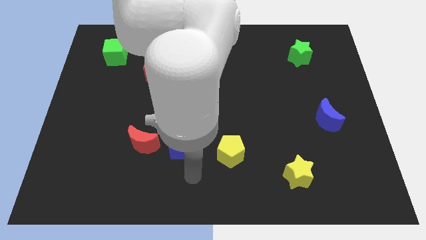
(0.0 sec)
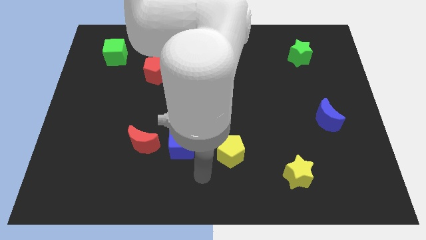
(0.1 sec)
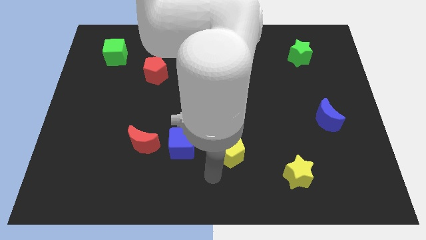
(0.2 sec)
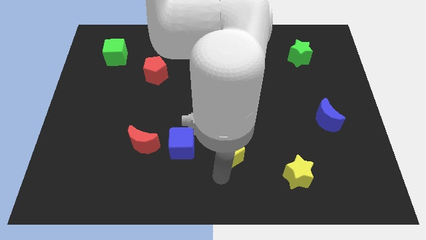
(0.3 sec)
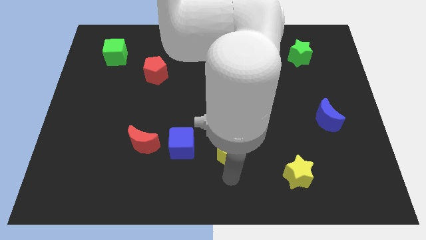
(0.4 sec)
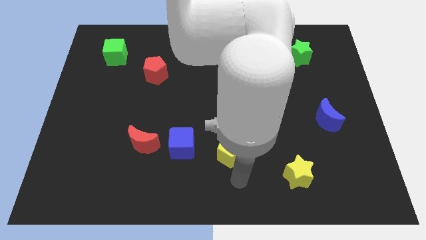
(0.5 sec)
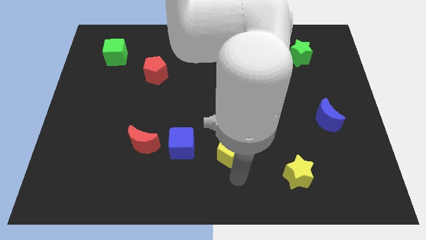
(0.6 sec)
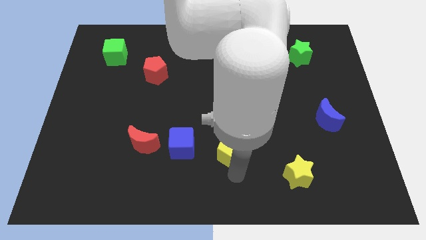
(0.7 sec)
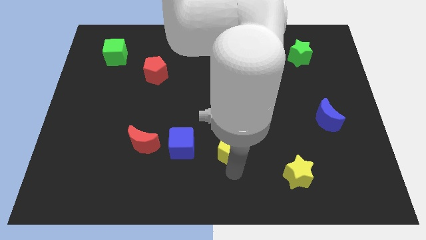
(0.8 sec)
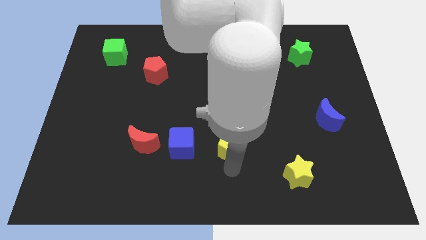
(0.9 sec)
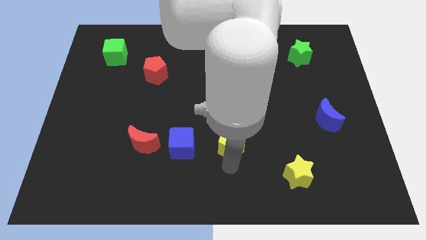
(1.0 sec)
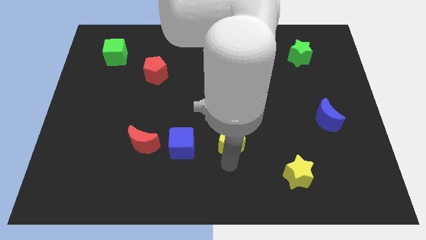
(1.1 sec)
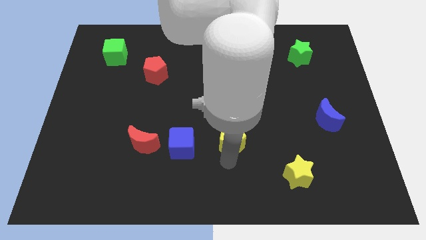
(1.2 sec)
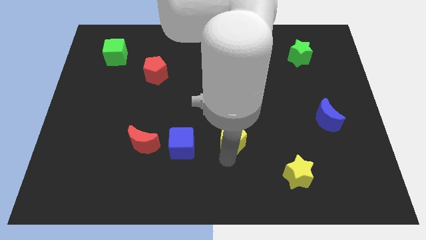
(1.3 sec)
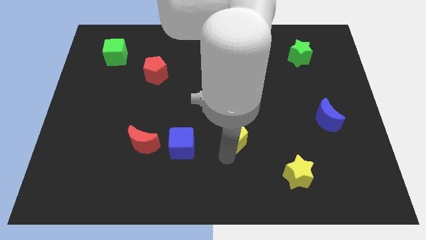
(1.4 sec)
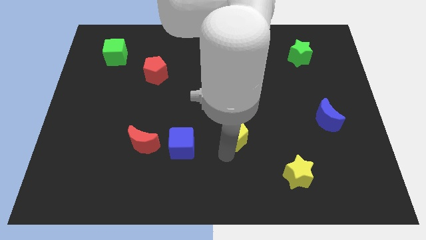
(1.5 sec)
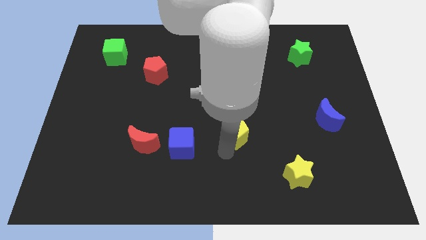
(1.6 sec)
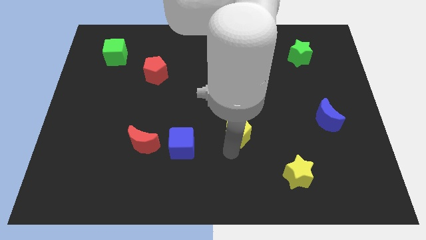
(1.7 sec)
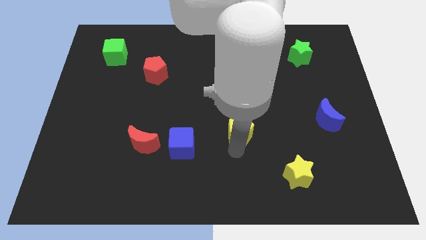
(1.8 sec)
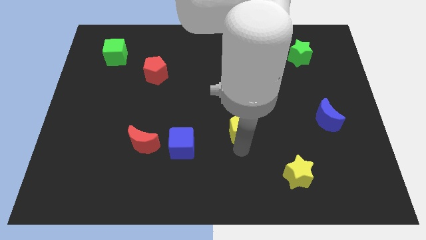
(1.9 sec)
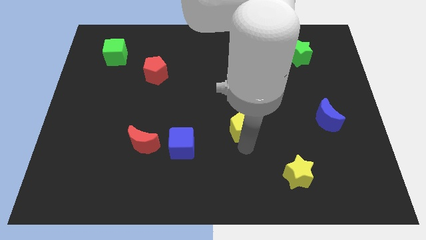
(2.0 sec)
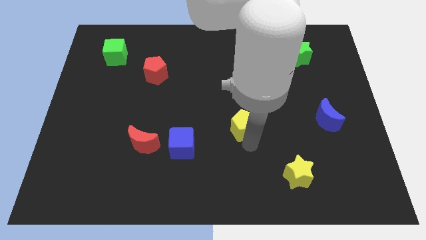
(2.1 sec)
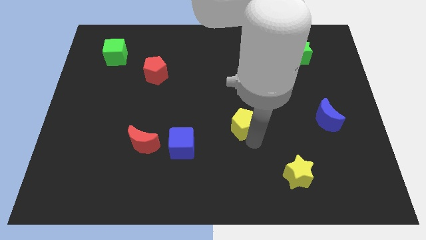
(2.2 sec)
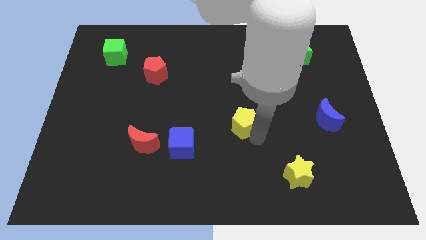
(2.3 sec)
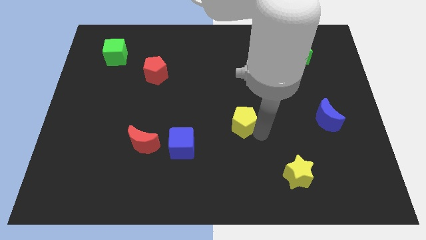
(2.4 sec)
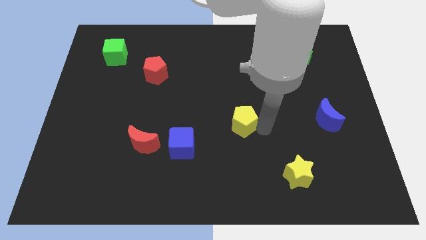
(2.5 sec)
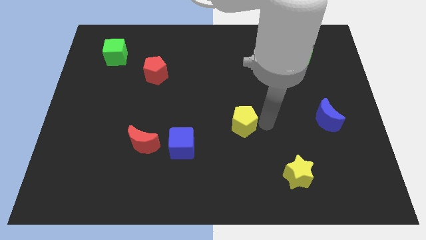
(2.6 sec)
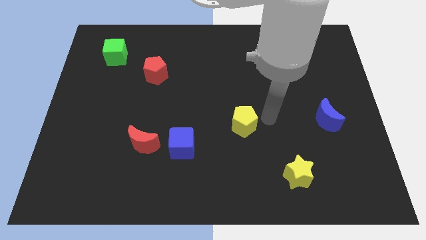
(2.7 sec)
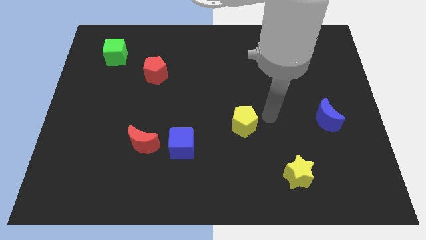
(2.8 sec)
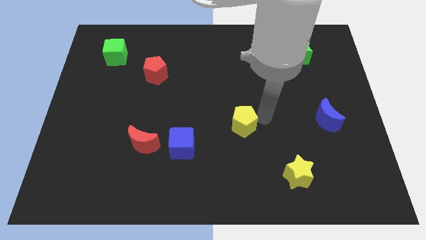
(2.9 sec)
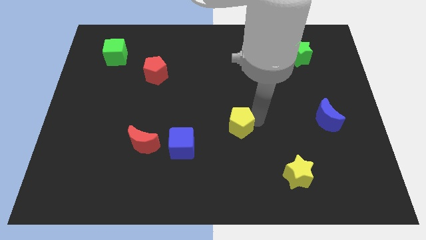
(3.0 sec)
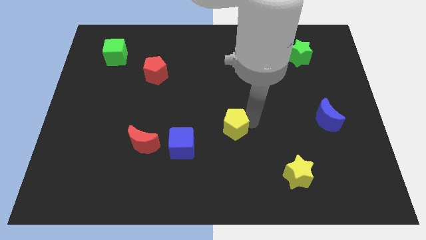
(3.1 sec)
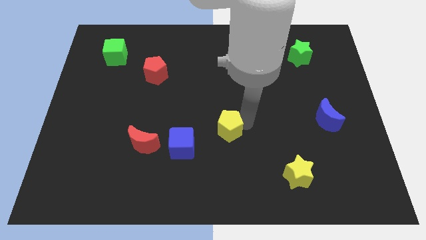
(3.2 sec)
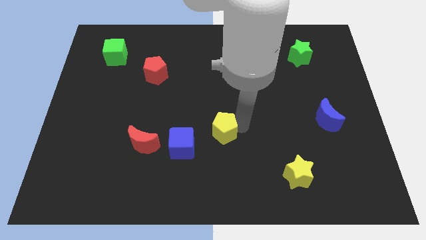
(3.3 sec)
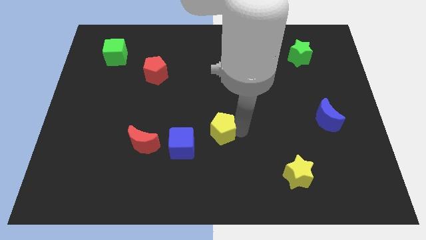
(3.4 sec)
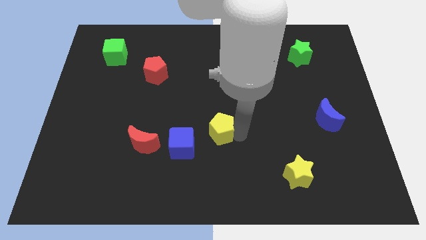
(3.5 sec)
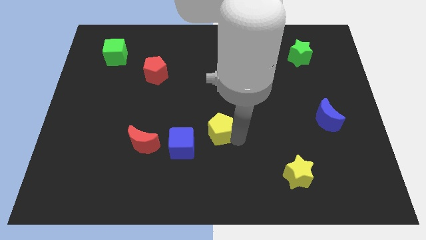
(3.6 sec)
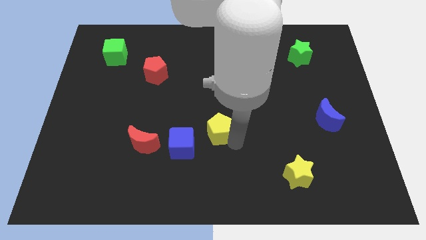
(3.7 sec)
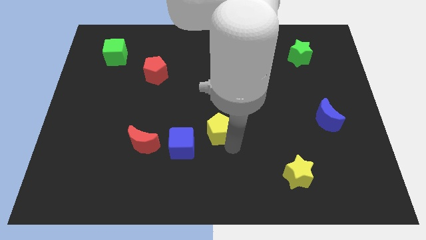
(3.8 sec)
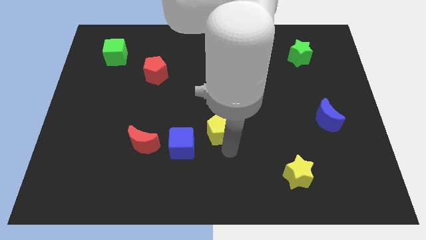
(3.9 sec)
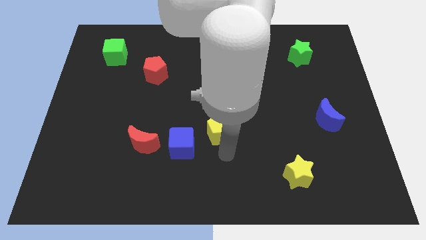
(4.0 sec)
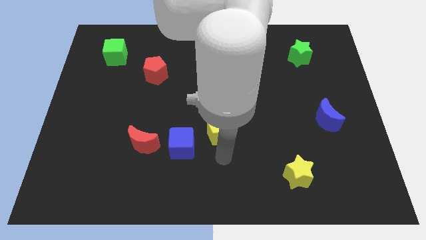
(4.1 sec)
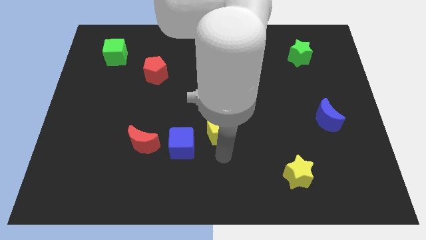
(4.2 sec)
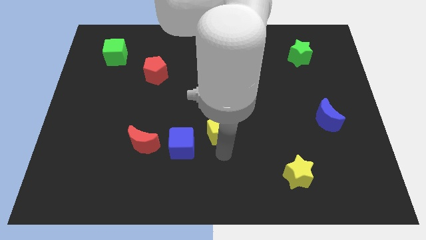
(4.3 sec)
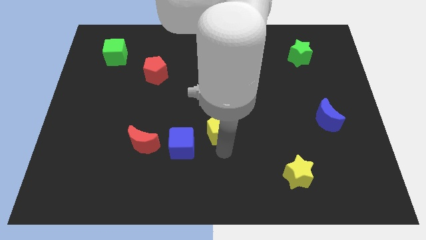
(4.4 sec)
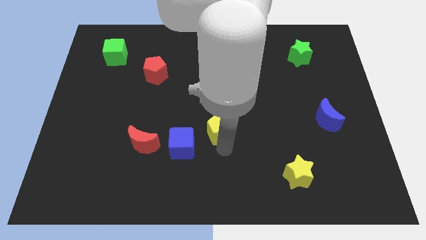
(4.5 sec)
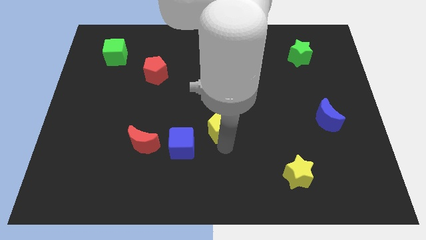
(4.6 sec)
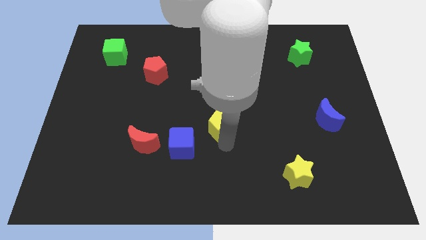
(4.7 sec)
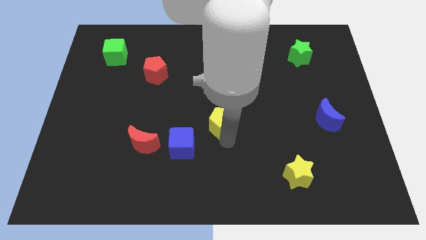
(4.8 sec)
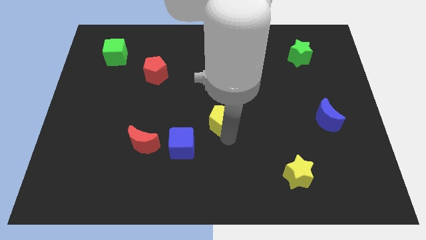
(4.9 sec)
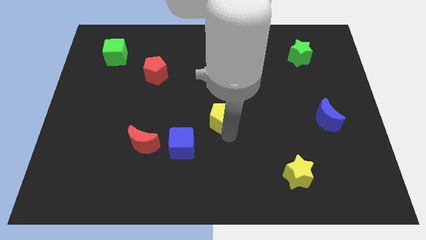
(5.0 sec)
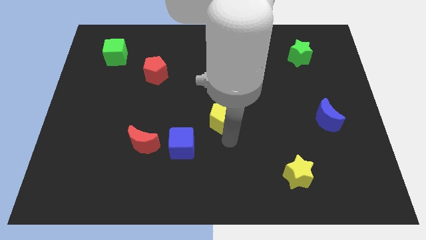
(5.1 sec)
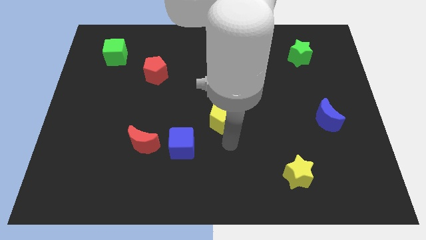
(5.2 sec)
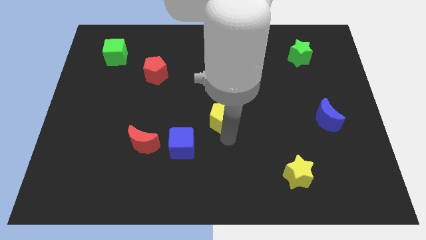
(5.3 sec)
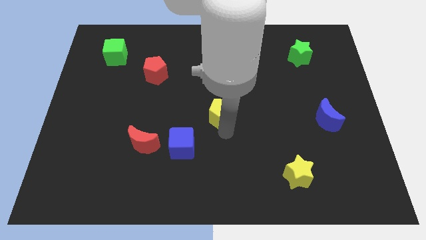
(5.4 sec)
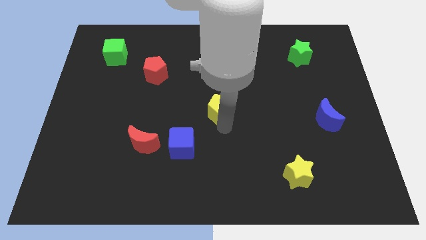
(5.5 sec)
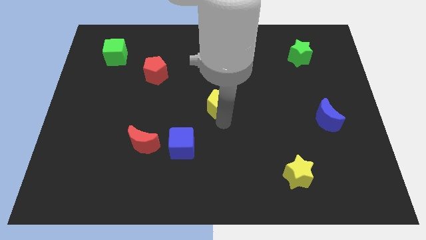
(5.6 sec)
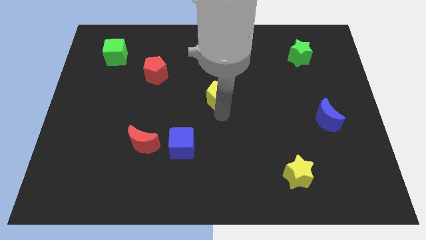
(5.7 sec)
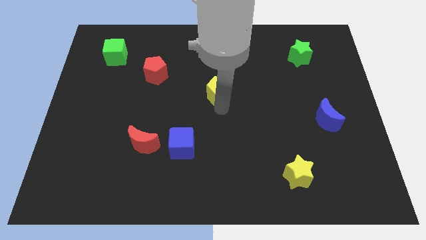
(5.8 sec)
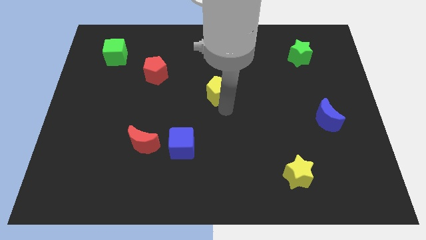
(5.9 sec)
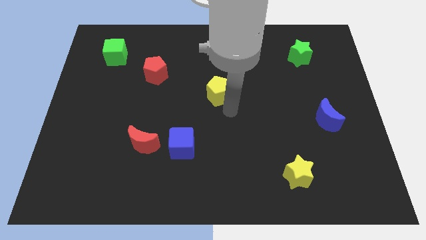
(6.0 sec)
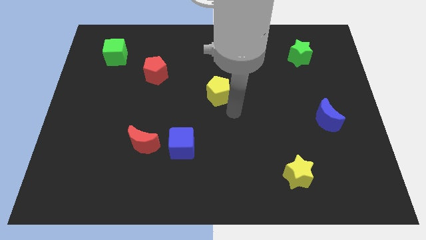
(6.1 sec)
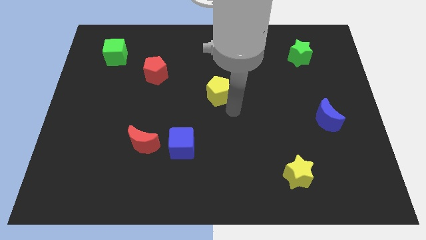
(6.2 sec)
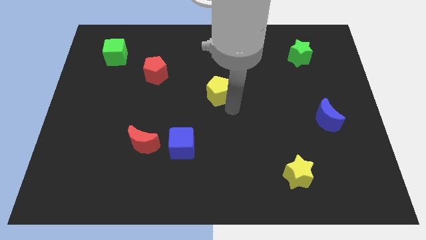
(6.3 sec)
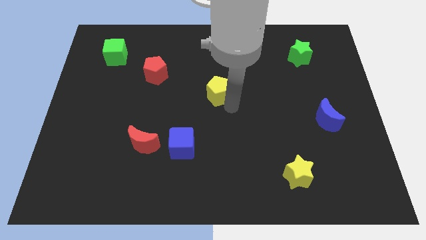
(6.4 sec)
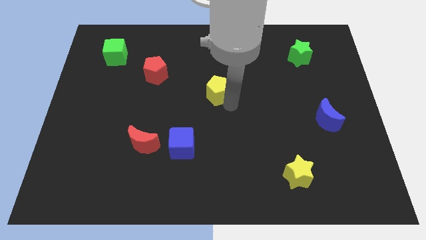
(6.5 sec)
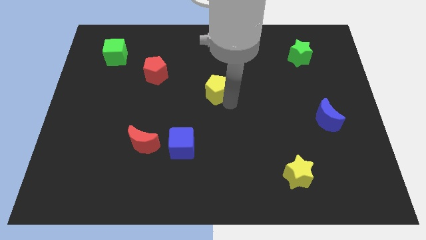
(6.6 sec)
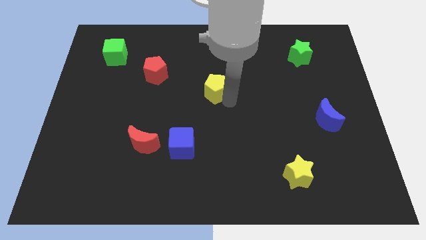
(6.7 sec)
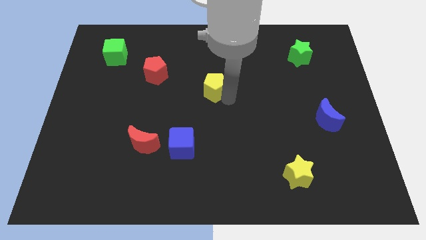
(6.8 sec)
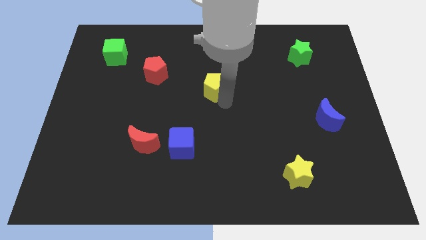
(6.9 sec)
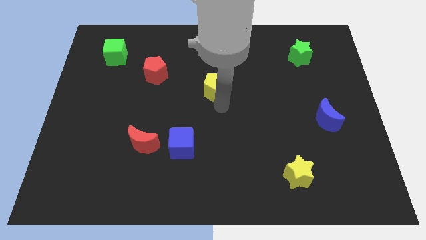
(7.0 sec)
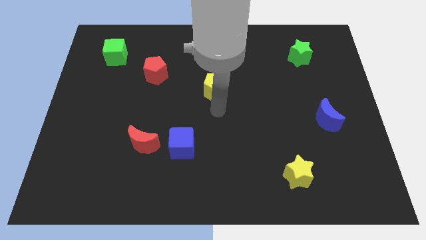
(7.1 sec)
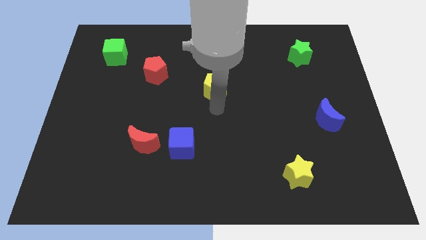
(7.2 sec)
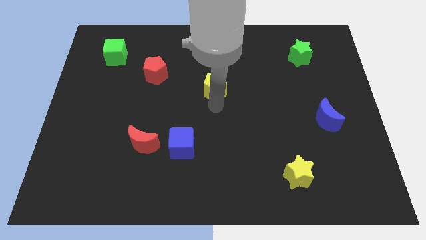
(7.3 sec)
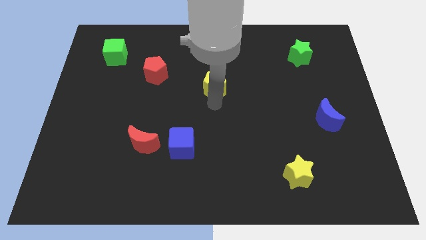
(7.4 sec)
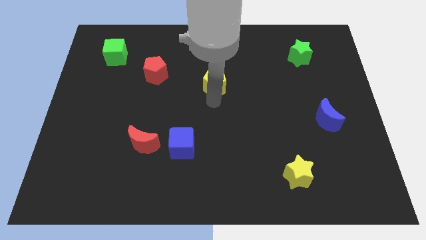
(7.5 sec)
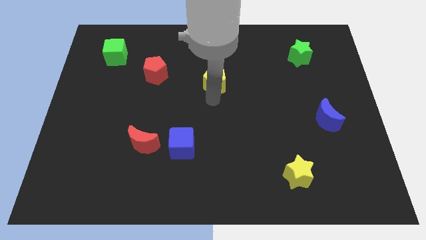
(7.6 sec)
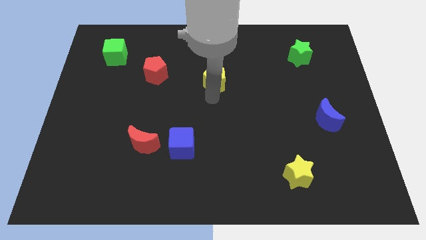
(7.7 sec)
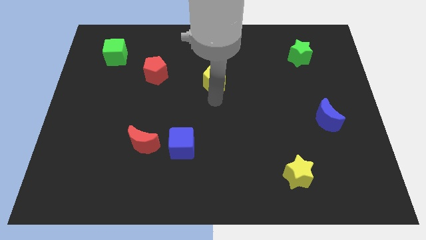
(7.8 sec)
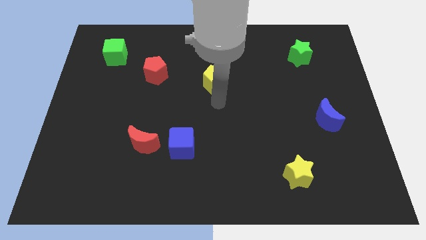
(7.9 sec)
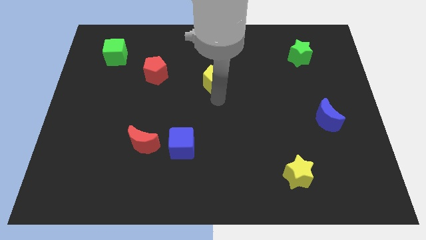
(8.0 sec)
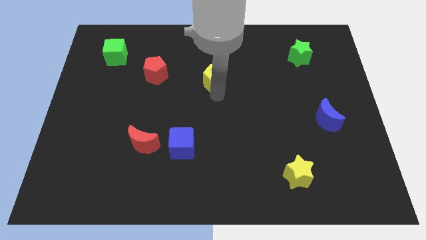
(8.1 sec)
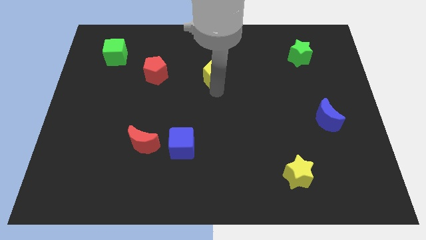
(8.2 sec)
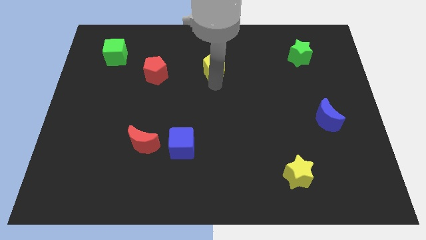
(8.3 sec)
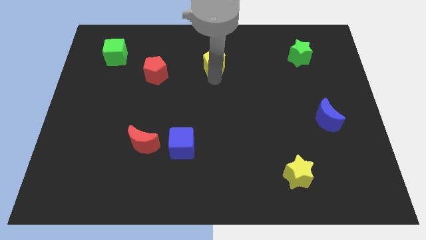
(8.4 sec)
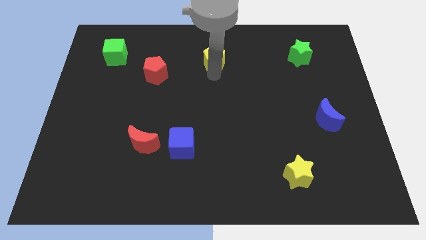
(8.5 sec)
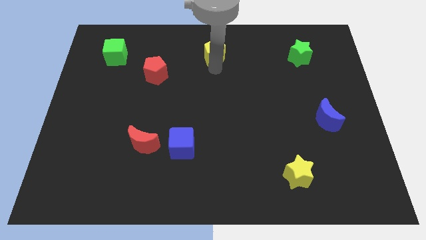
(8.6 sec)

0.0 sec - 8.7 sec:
move the yellow pentagon to the towards your base
